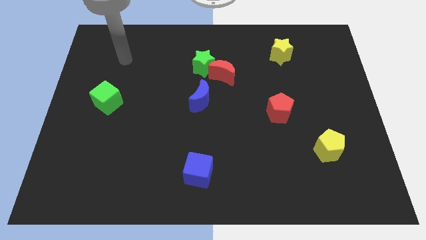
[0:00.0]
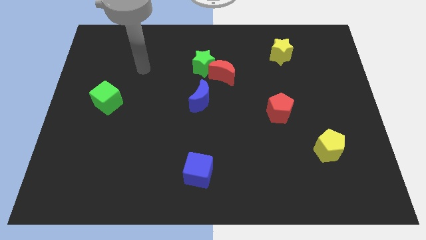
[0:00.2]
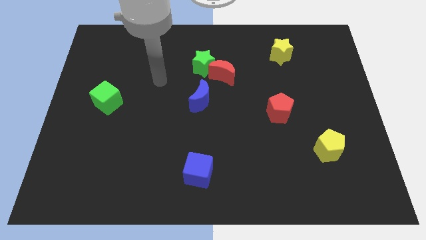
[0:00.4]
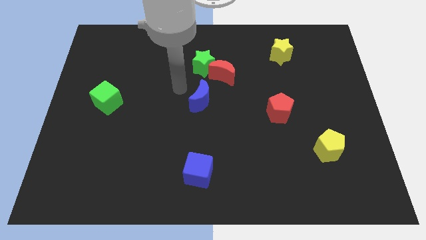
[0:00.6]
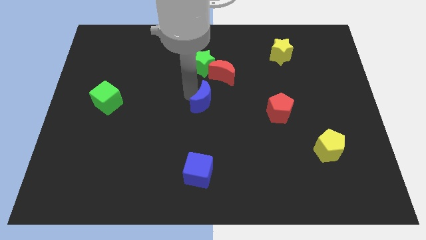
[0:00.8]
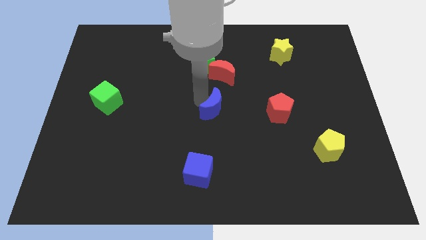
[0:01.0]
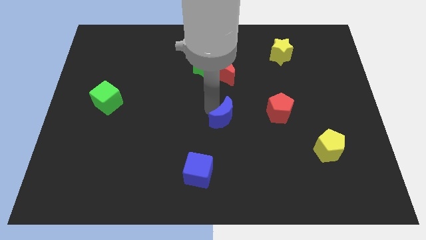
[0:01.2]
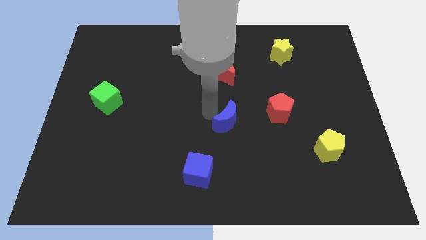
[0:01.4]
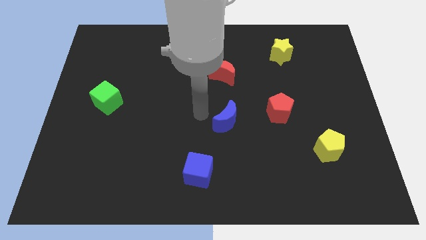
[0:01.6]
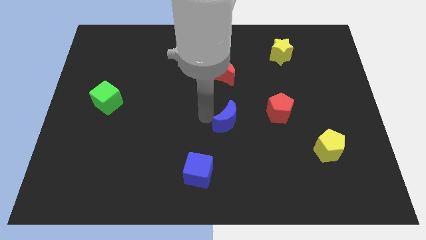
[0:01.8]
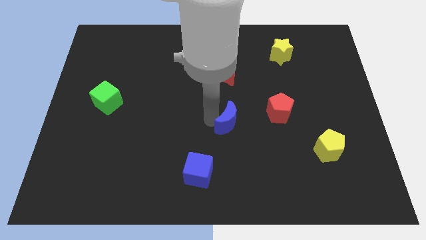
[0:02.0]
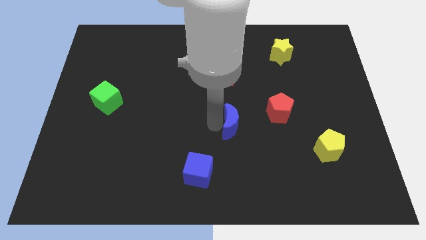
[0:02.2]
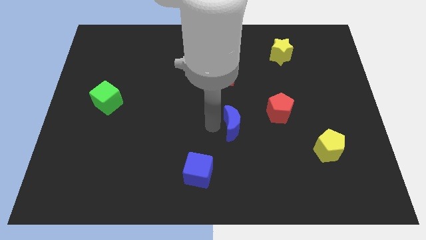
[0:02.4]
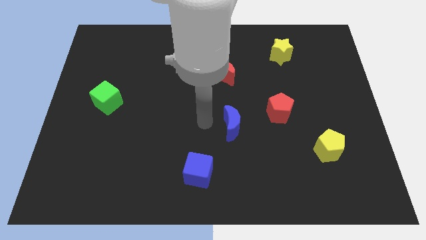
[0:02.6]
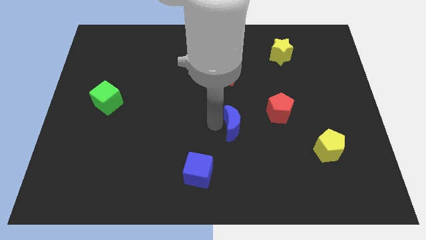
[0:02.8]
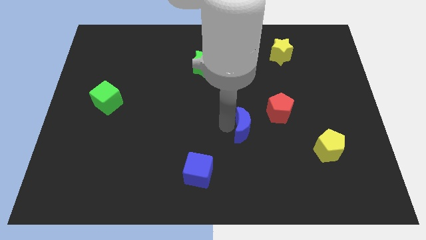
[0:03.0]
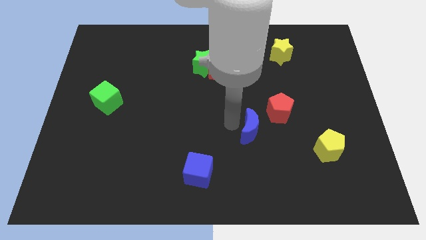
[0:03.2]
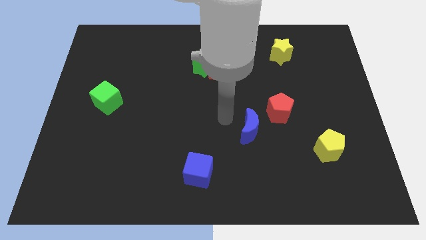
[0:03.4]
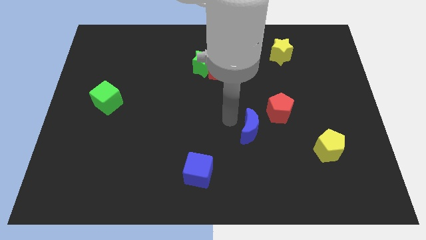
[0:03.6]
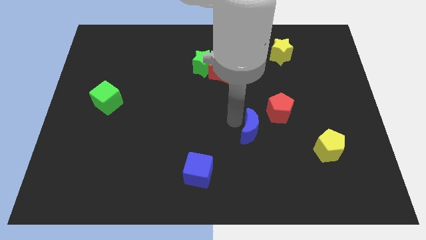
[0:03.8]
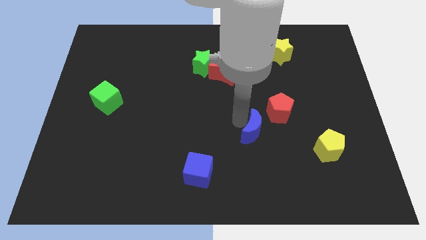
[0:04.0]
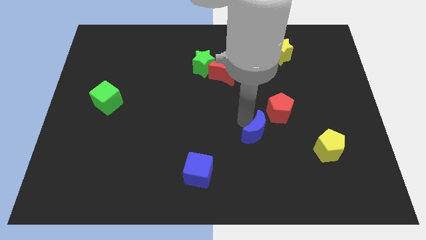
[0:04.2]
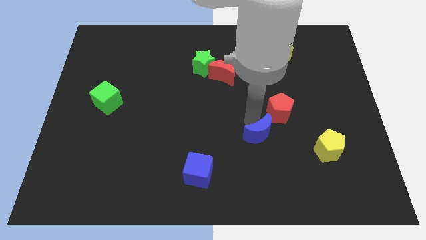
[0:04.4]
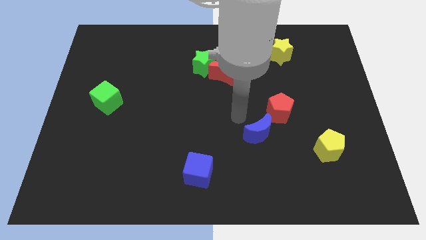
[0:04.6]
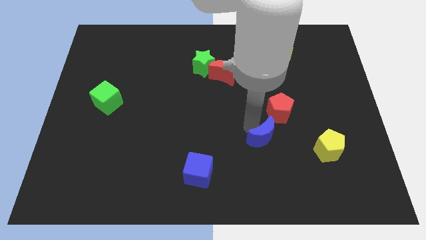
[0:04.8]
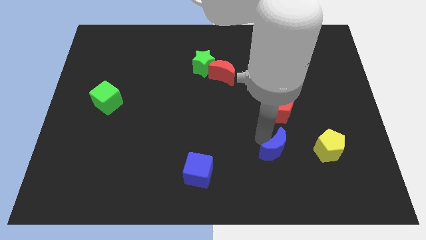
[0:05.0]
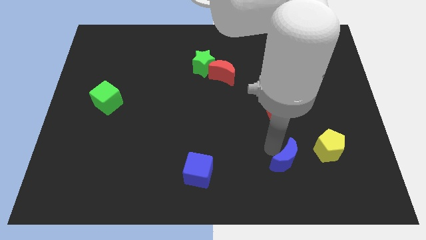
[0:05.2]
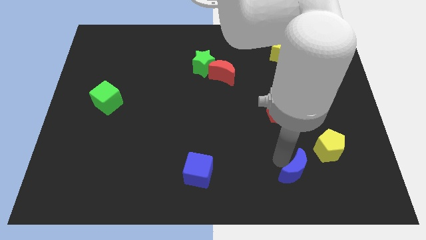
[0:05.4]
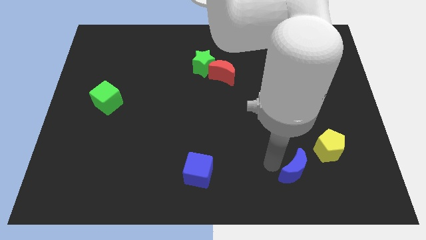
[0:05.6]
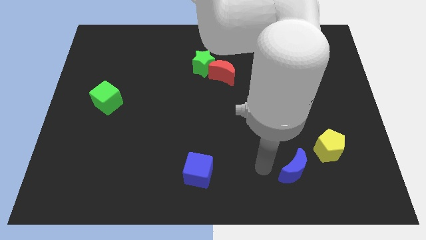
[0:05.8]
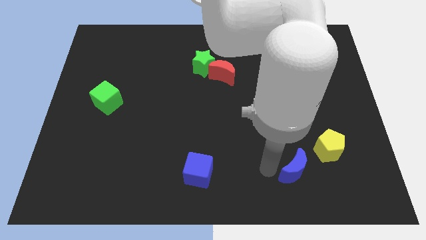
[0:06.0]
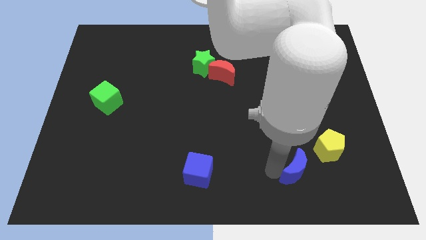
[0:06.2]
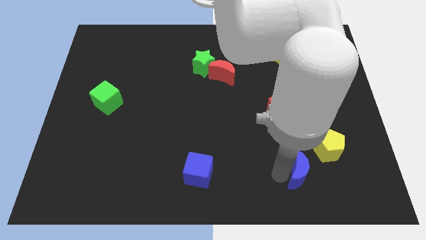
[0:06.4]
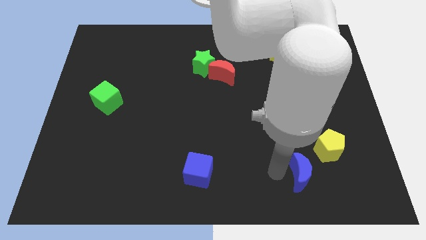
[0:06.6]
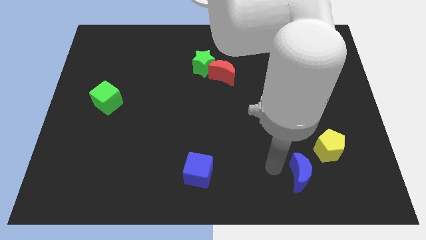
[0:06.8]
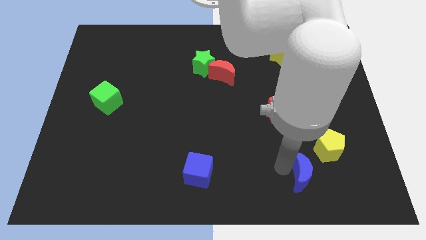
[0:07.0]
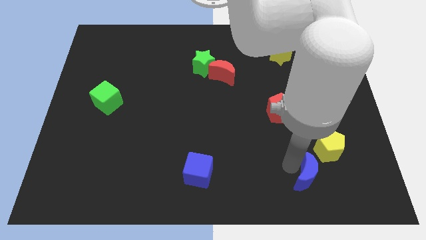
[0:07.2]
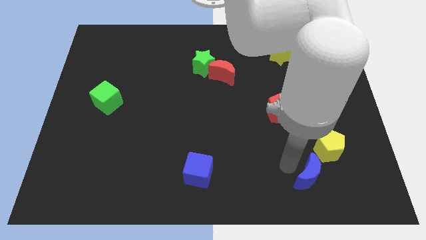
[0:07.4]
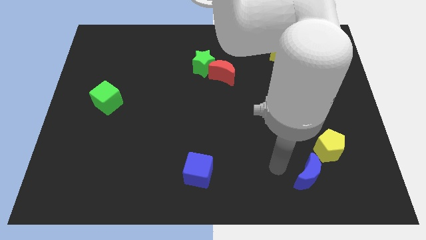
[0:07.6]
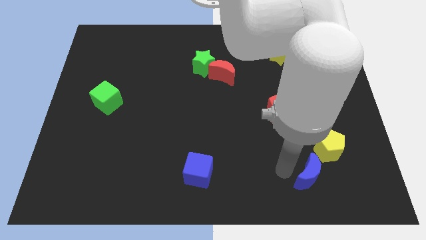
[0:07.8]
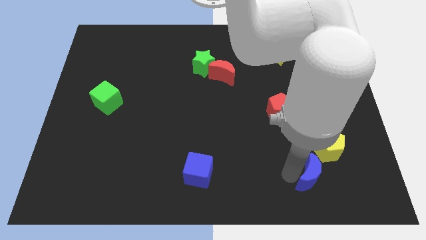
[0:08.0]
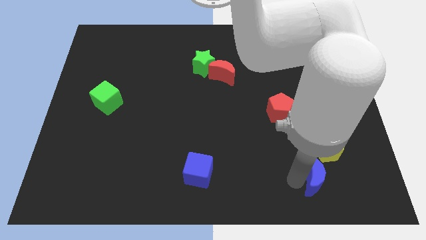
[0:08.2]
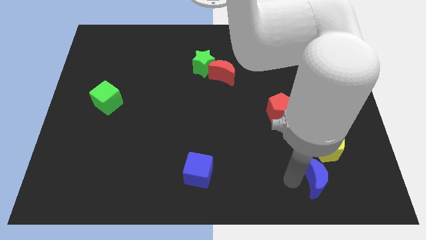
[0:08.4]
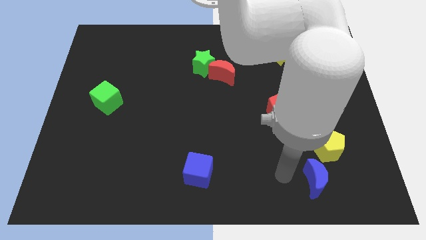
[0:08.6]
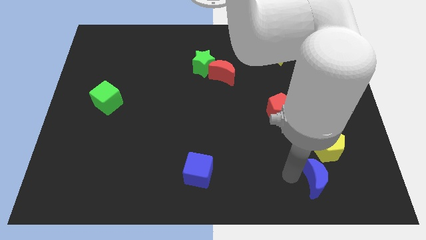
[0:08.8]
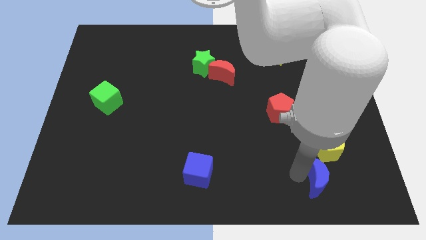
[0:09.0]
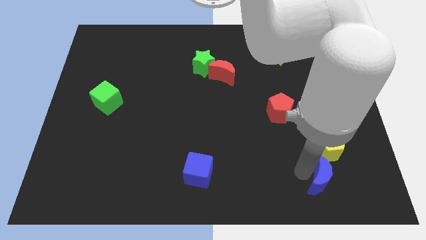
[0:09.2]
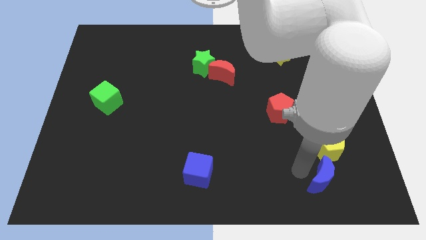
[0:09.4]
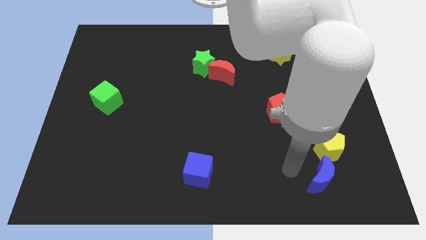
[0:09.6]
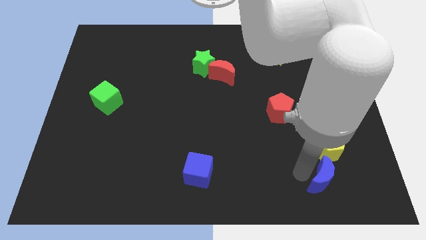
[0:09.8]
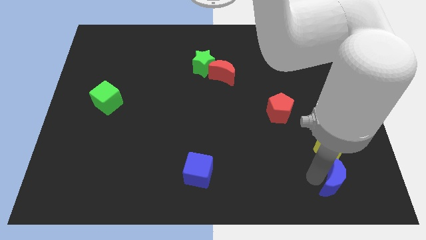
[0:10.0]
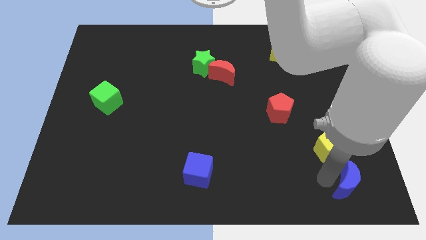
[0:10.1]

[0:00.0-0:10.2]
put the blue moon to the bottom right of the board

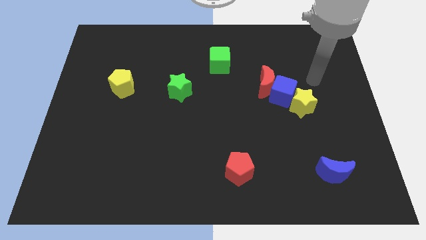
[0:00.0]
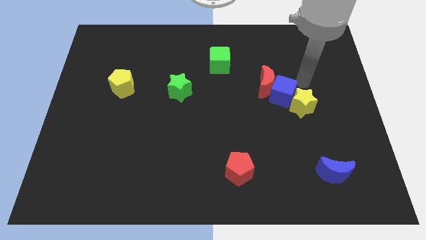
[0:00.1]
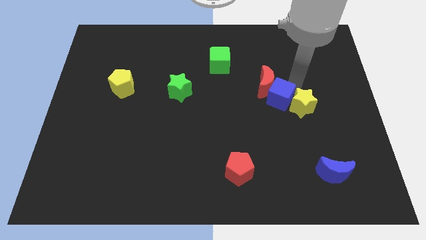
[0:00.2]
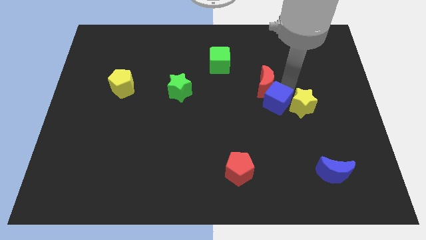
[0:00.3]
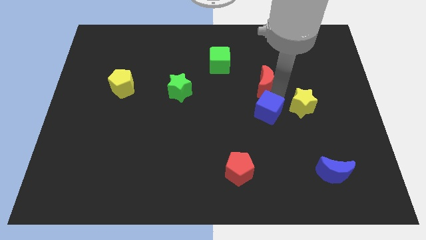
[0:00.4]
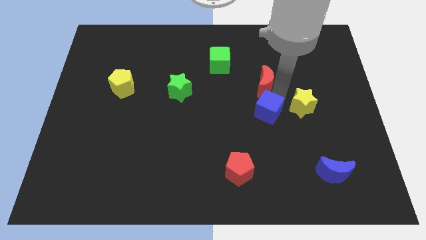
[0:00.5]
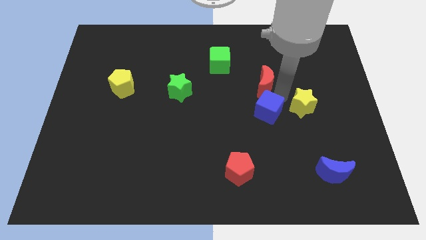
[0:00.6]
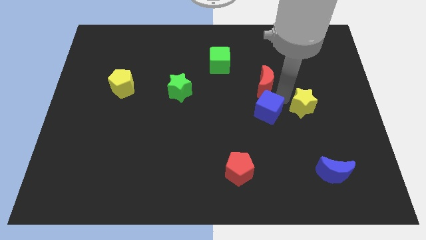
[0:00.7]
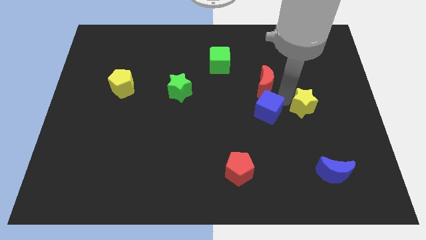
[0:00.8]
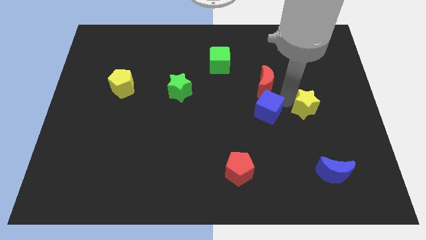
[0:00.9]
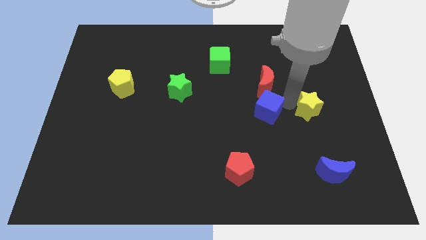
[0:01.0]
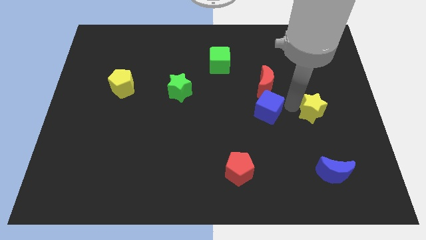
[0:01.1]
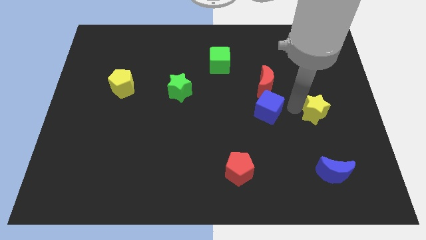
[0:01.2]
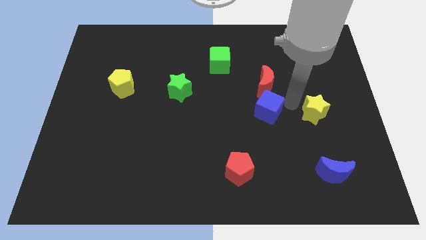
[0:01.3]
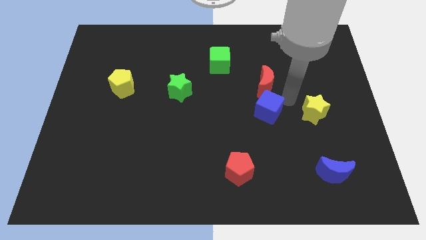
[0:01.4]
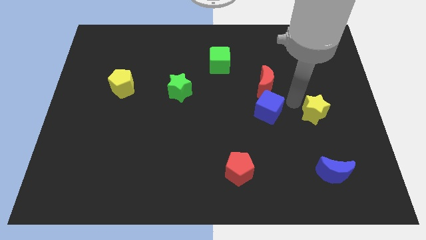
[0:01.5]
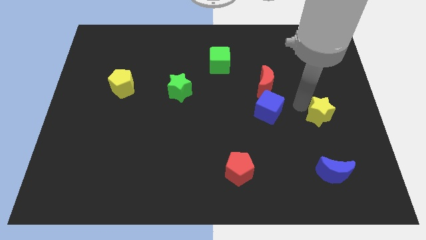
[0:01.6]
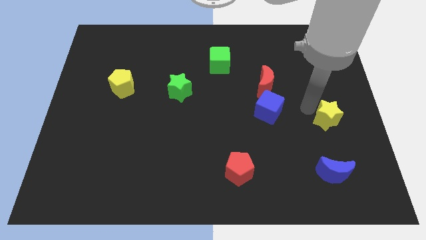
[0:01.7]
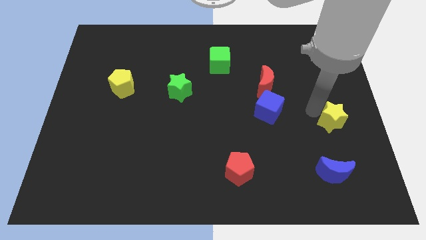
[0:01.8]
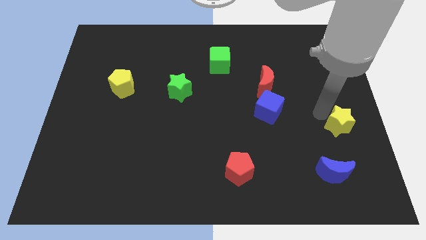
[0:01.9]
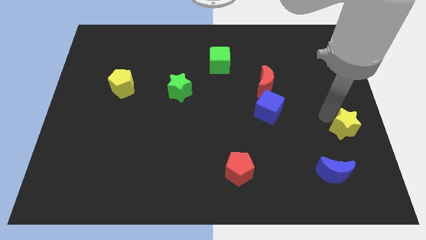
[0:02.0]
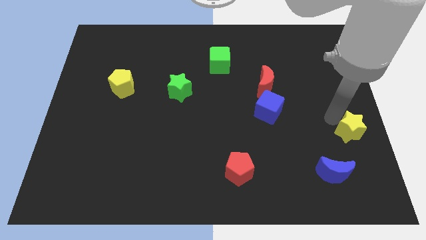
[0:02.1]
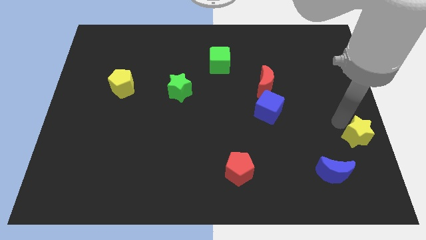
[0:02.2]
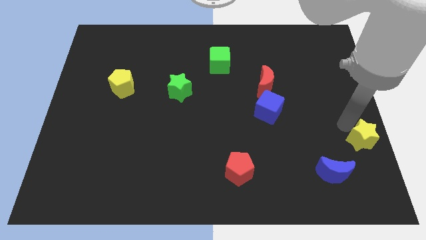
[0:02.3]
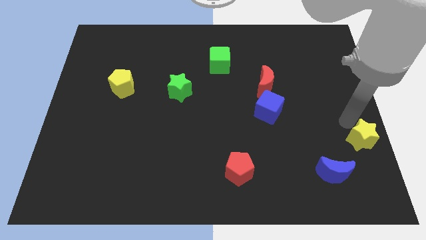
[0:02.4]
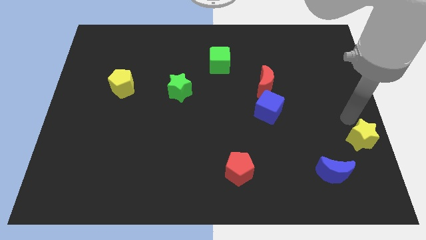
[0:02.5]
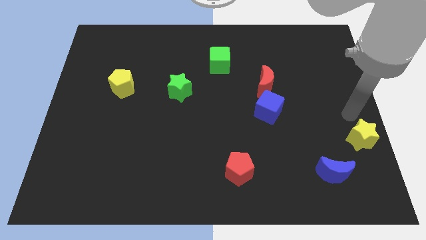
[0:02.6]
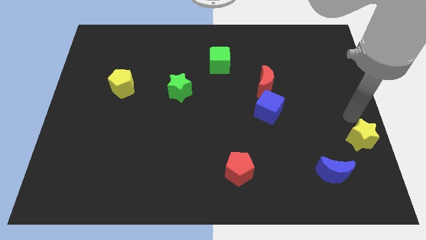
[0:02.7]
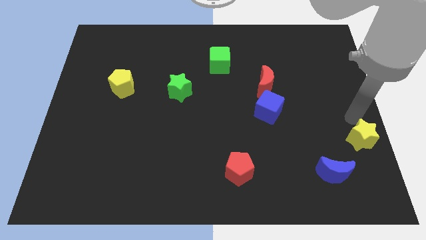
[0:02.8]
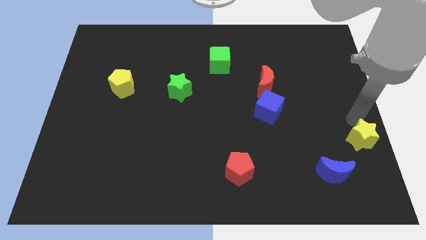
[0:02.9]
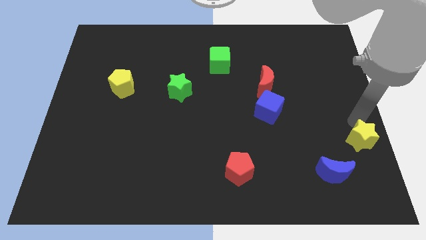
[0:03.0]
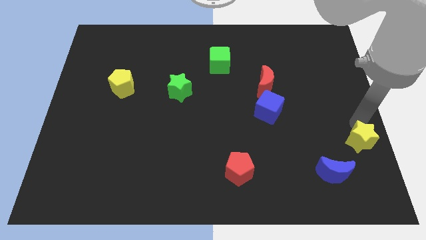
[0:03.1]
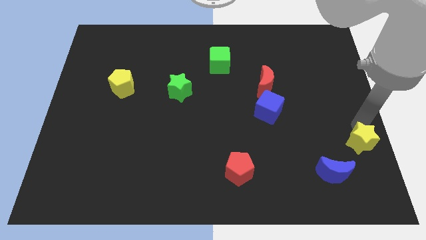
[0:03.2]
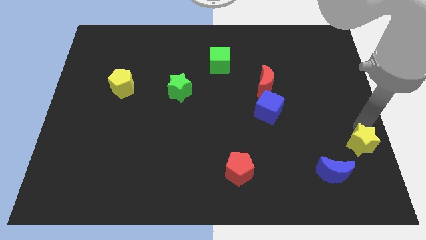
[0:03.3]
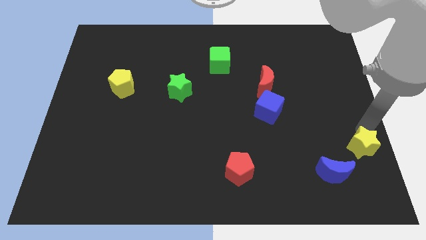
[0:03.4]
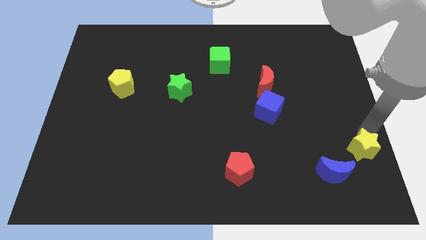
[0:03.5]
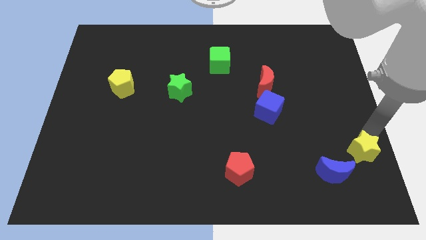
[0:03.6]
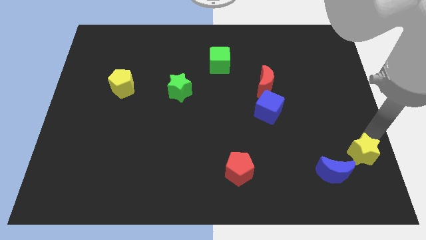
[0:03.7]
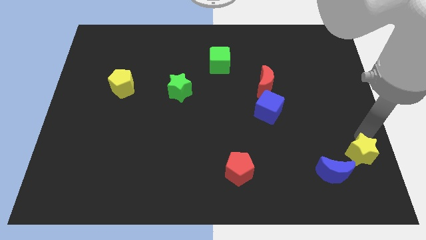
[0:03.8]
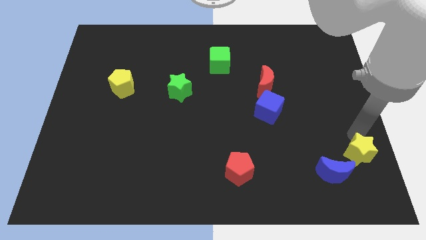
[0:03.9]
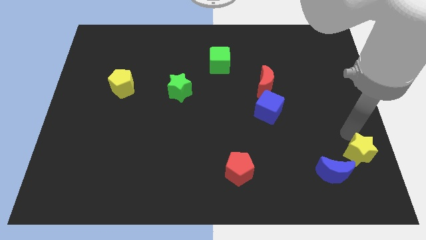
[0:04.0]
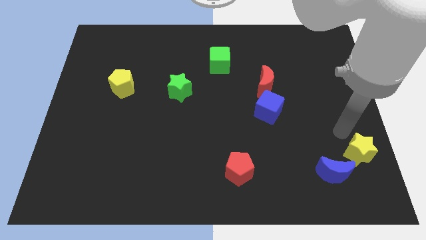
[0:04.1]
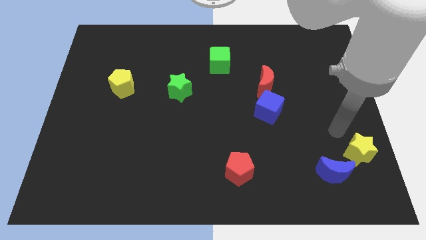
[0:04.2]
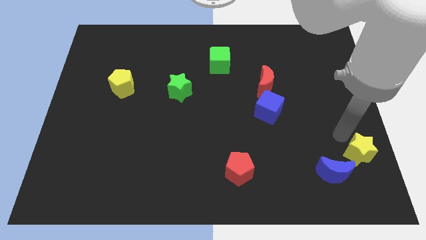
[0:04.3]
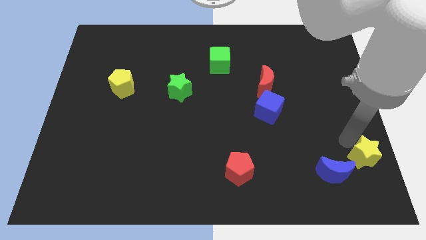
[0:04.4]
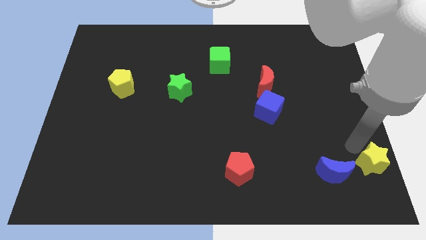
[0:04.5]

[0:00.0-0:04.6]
slide the yellow star to the lower right corner
